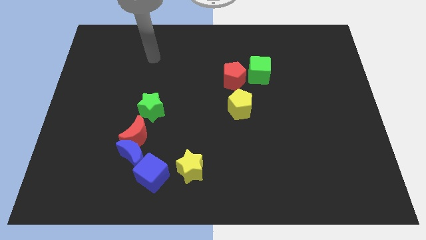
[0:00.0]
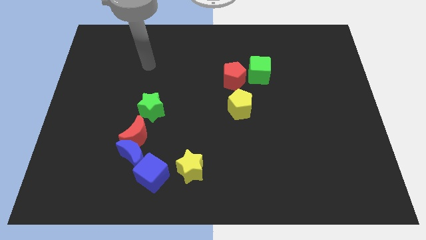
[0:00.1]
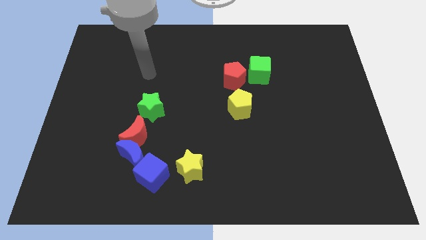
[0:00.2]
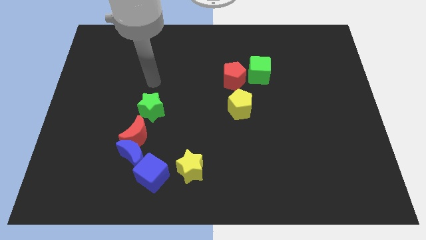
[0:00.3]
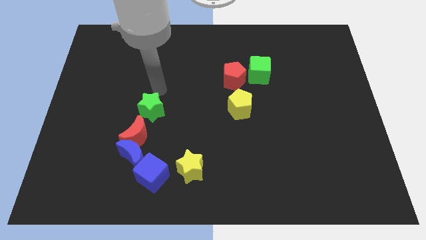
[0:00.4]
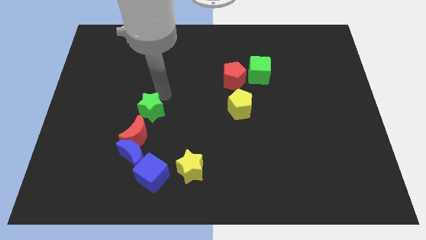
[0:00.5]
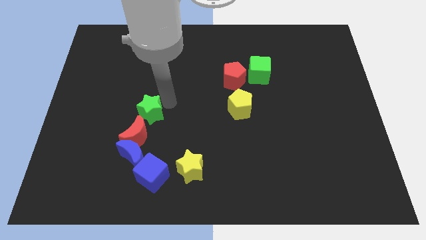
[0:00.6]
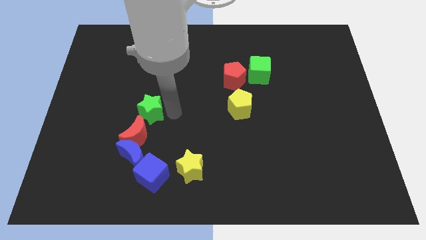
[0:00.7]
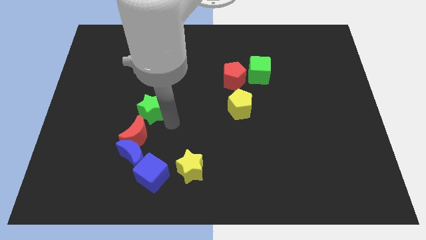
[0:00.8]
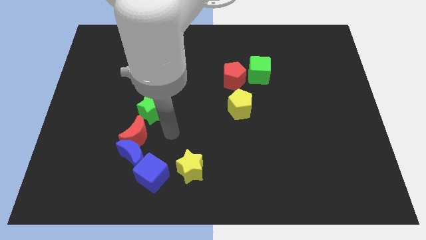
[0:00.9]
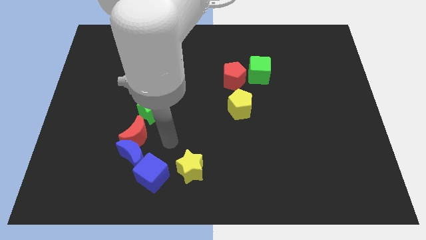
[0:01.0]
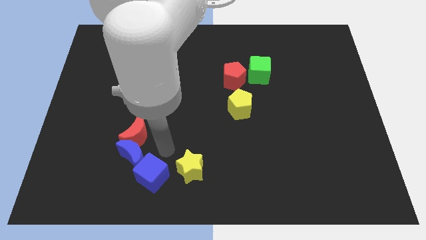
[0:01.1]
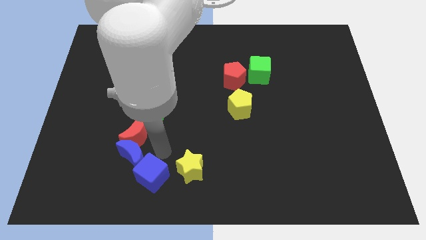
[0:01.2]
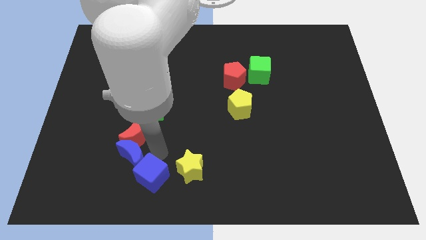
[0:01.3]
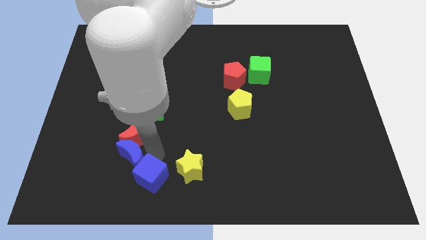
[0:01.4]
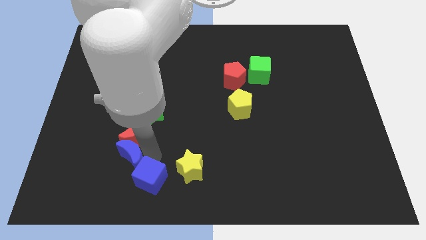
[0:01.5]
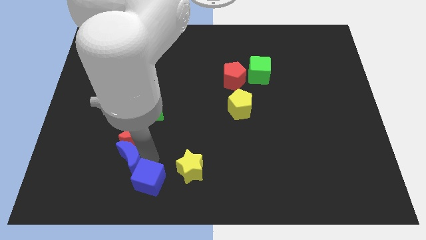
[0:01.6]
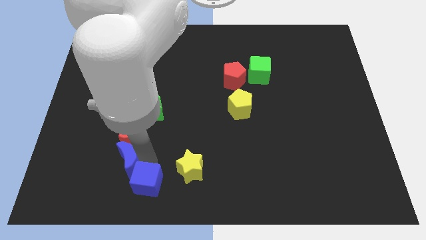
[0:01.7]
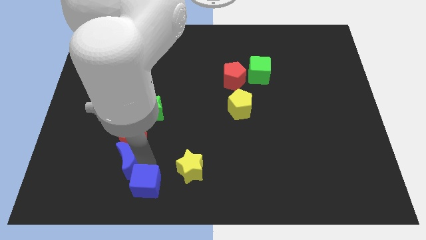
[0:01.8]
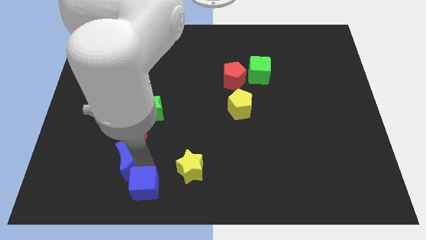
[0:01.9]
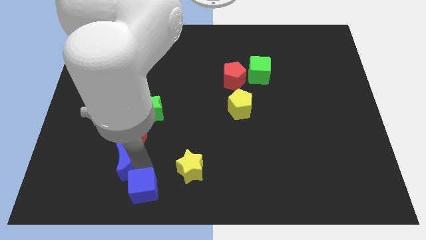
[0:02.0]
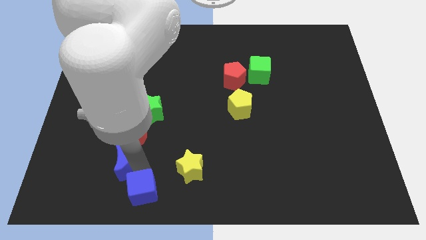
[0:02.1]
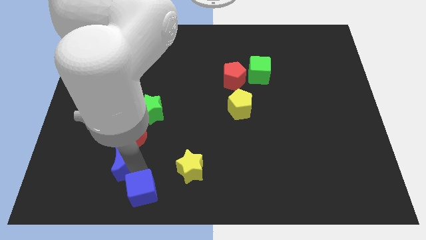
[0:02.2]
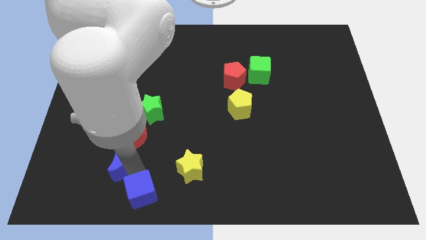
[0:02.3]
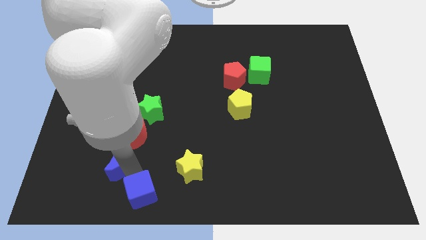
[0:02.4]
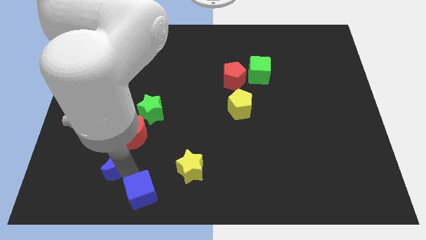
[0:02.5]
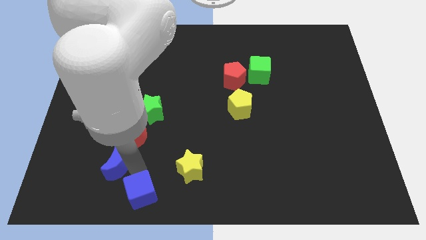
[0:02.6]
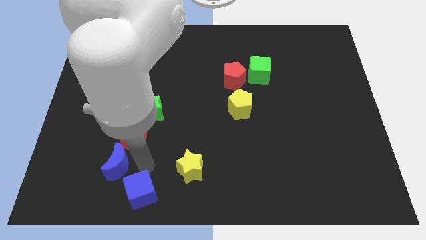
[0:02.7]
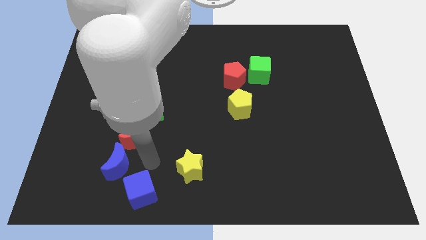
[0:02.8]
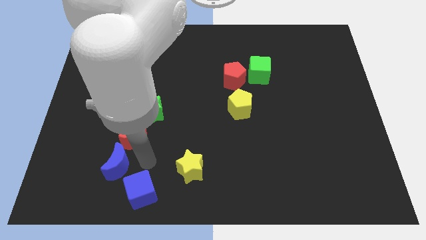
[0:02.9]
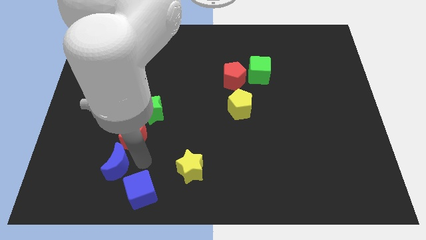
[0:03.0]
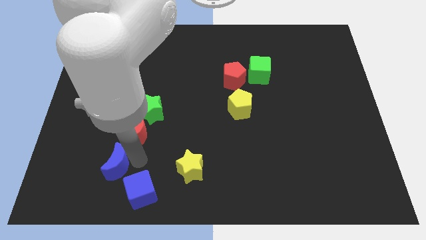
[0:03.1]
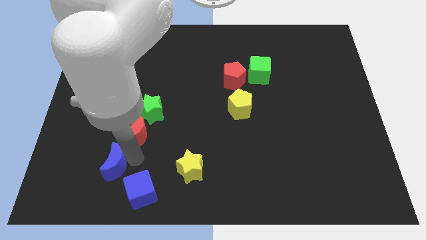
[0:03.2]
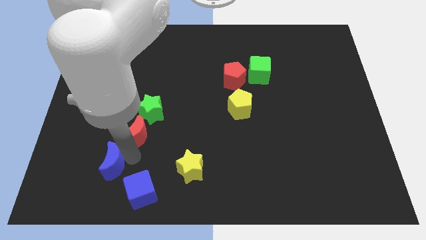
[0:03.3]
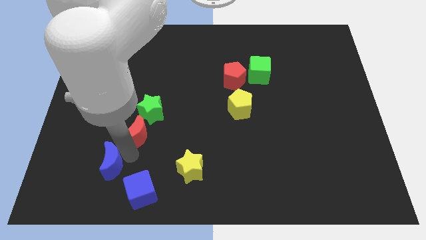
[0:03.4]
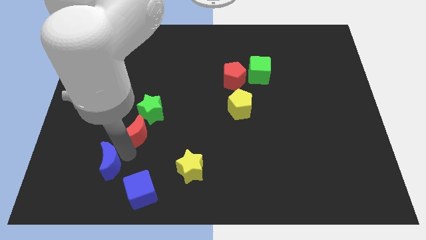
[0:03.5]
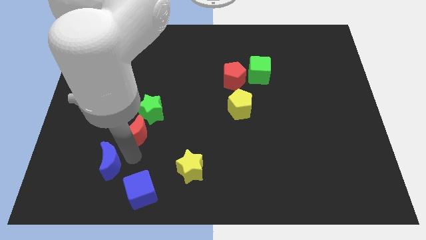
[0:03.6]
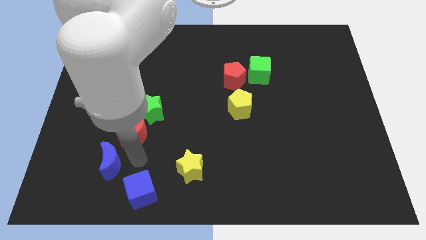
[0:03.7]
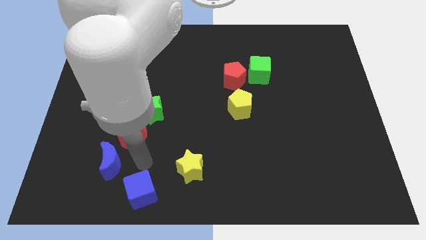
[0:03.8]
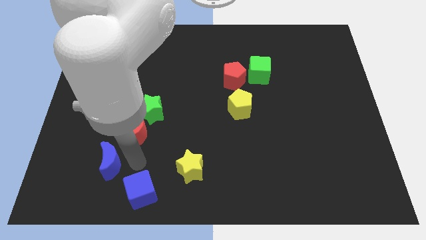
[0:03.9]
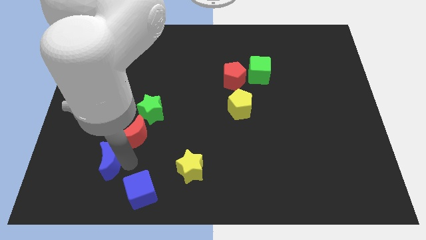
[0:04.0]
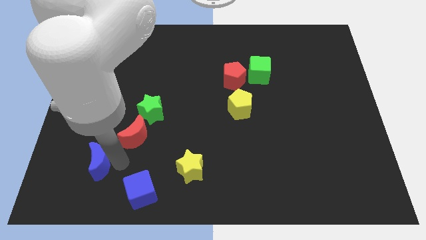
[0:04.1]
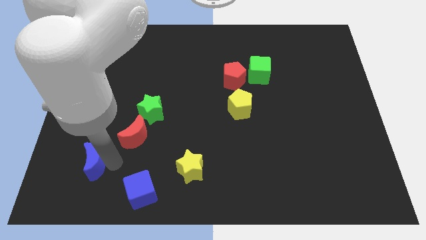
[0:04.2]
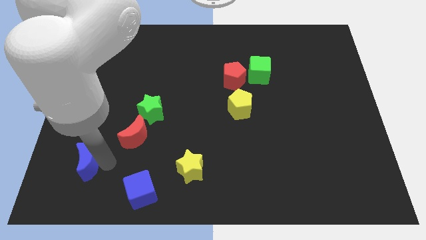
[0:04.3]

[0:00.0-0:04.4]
pull the blue moon apart from the red moon and blue cube

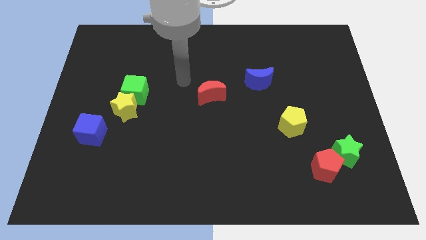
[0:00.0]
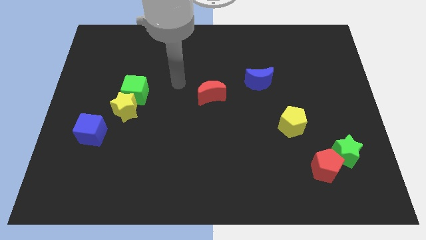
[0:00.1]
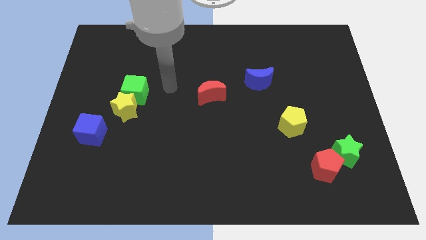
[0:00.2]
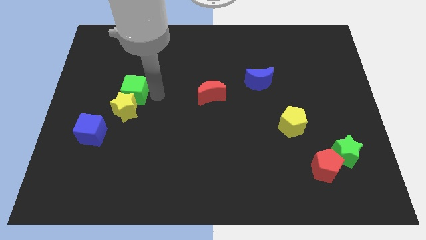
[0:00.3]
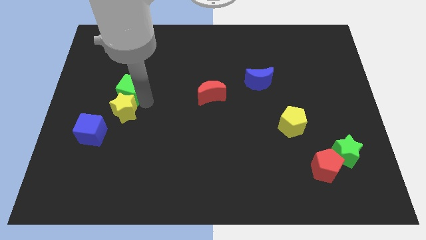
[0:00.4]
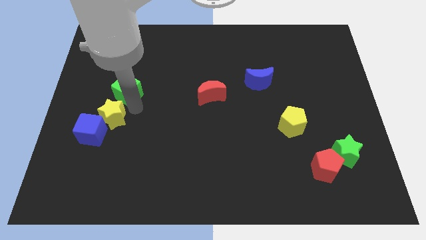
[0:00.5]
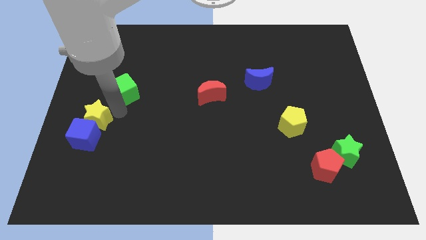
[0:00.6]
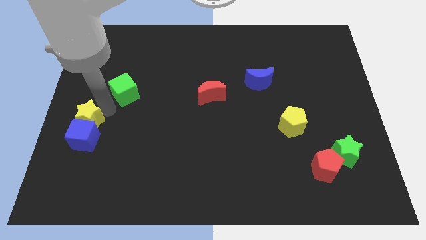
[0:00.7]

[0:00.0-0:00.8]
separate the green cube from the yellow star

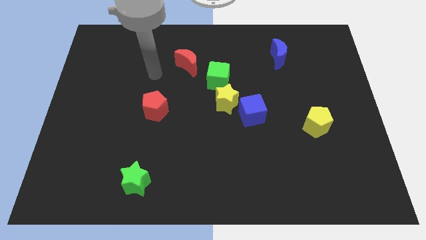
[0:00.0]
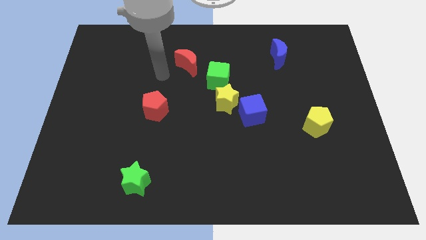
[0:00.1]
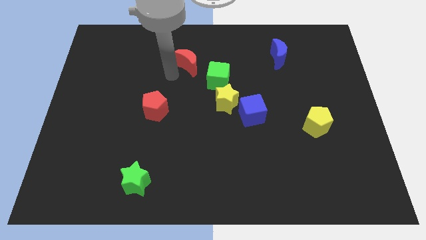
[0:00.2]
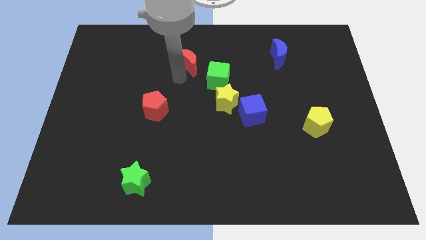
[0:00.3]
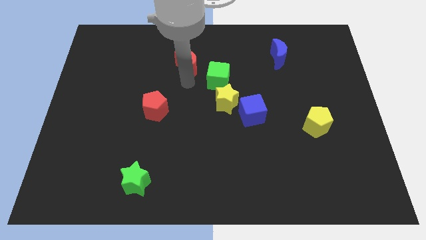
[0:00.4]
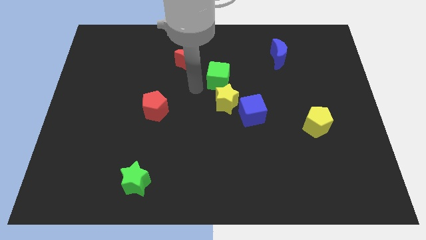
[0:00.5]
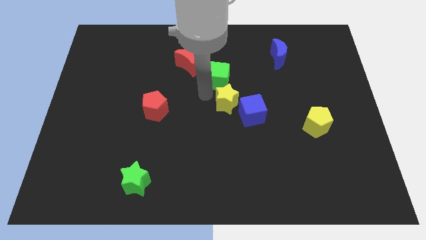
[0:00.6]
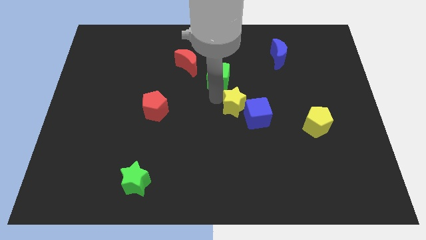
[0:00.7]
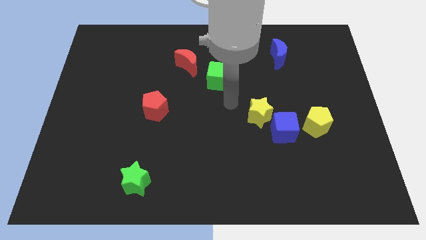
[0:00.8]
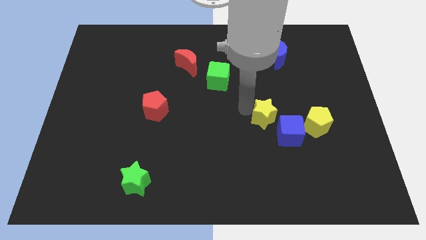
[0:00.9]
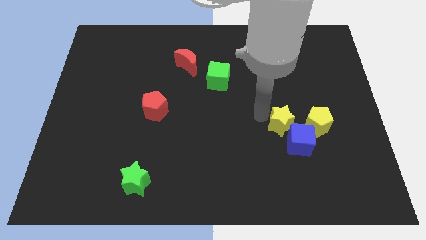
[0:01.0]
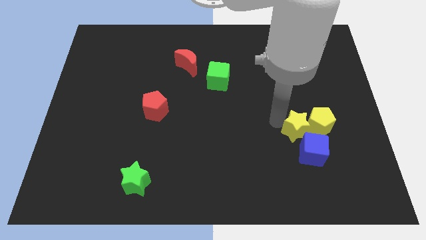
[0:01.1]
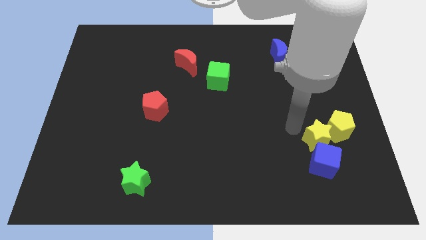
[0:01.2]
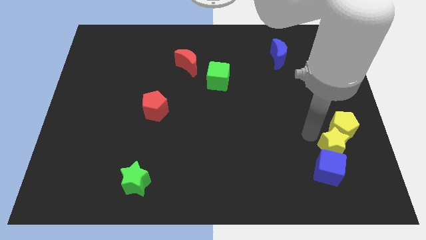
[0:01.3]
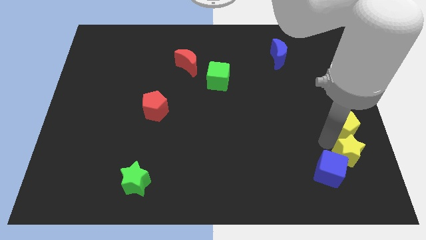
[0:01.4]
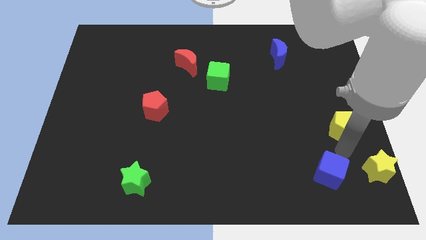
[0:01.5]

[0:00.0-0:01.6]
pull the blue cube apart from the yellow star

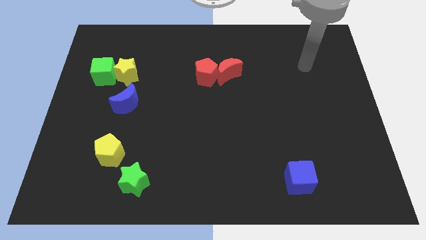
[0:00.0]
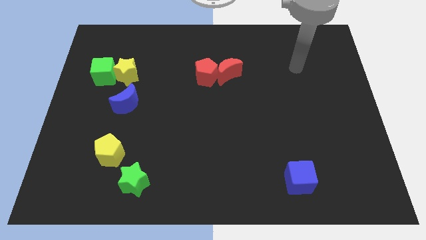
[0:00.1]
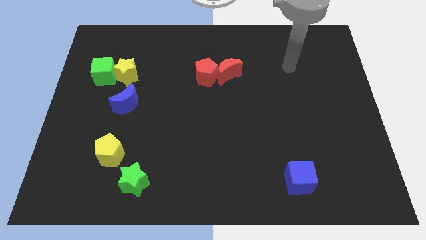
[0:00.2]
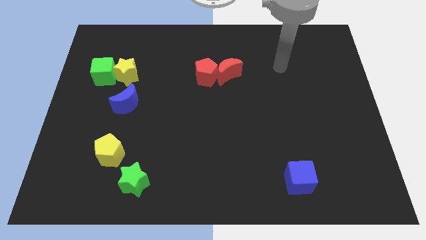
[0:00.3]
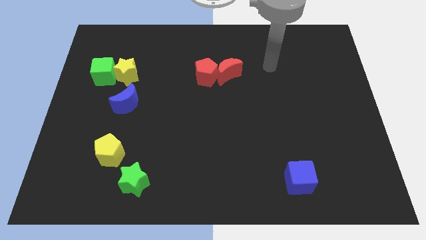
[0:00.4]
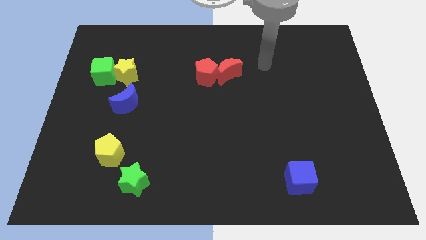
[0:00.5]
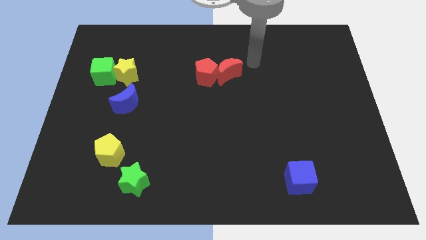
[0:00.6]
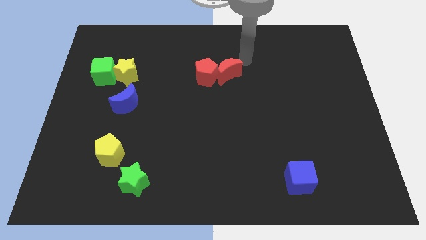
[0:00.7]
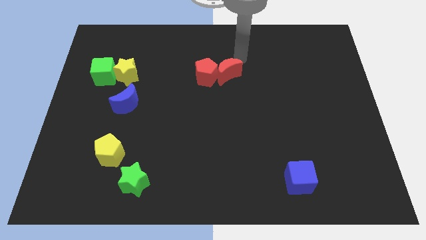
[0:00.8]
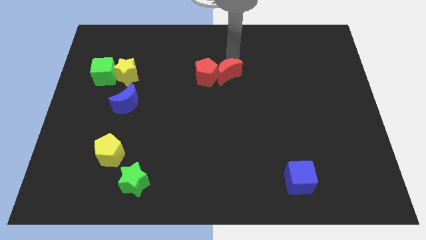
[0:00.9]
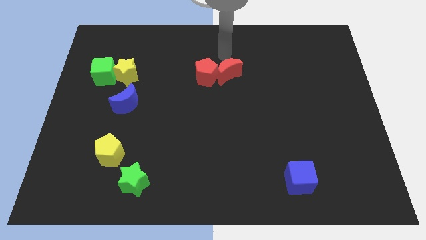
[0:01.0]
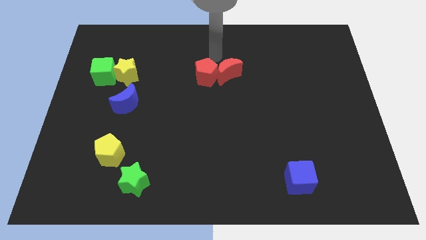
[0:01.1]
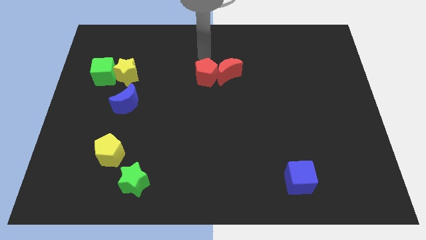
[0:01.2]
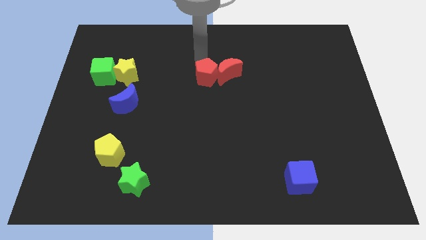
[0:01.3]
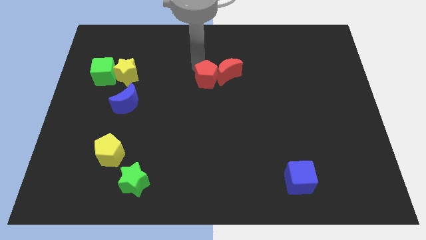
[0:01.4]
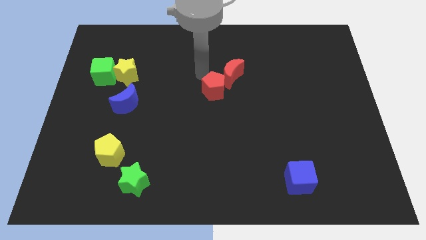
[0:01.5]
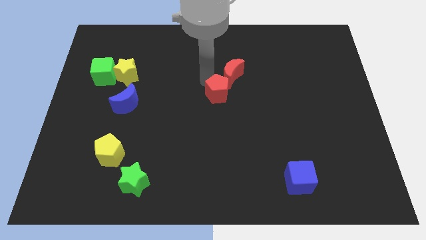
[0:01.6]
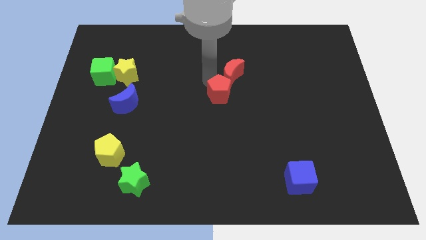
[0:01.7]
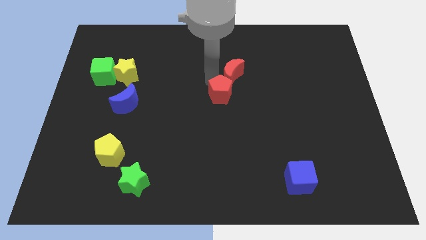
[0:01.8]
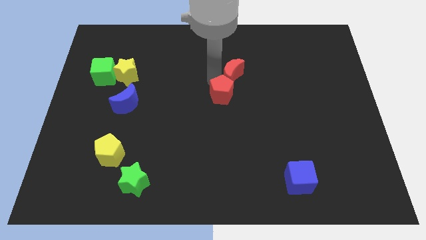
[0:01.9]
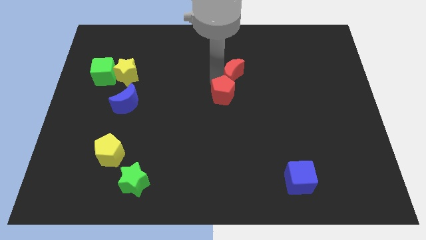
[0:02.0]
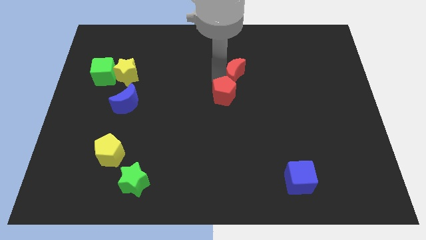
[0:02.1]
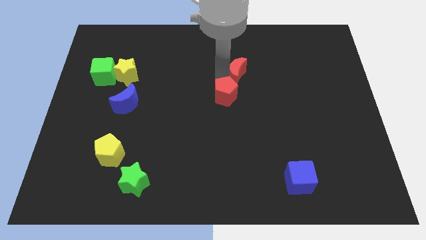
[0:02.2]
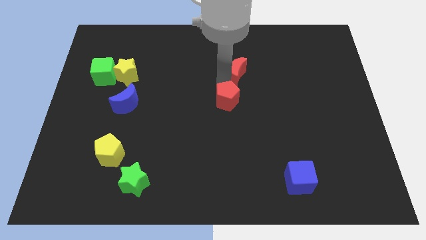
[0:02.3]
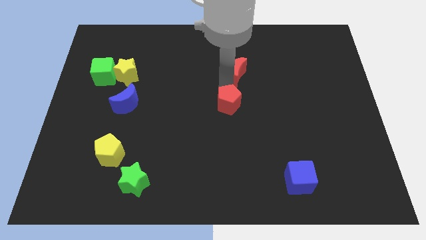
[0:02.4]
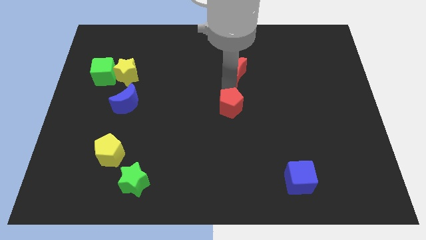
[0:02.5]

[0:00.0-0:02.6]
move the red moon away from the red pentagon
